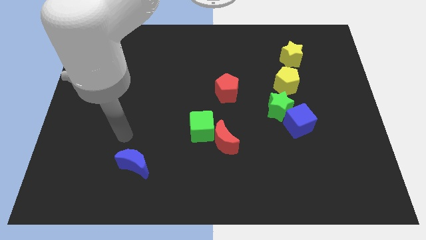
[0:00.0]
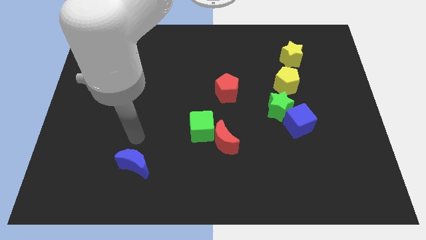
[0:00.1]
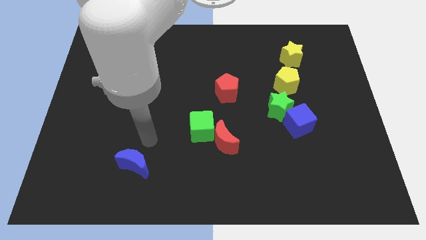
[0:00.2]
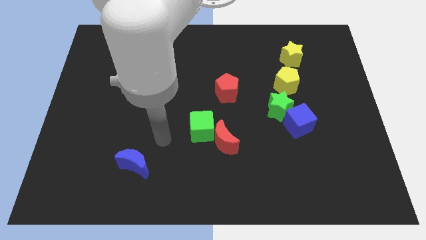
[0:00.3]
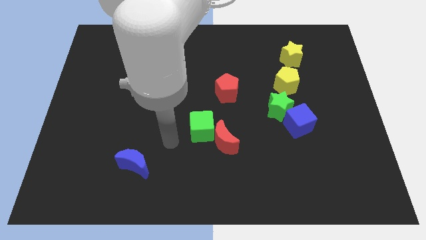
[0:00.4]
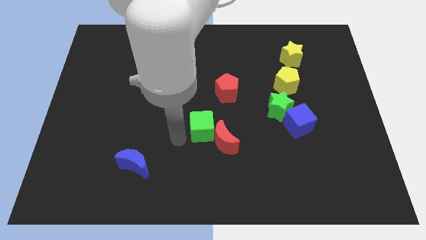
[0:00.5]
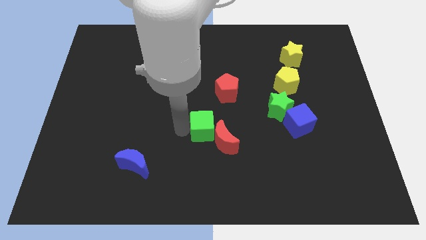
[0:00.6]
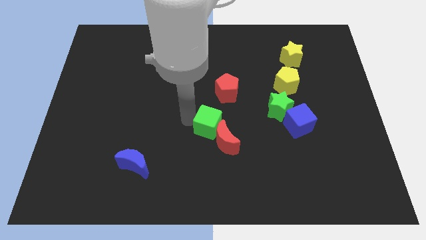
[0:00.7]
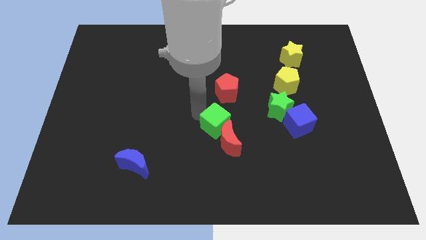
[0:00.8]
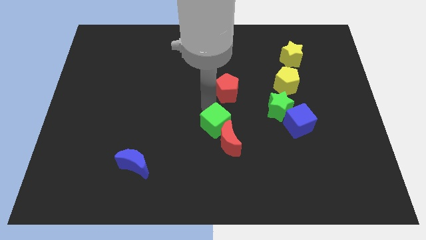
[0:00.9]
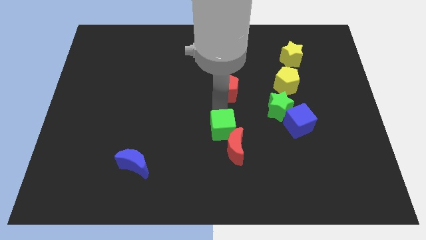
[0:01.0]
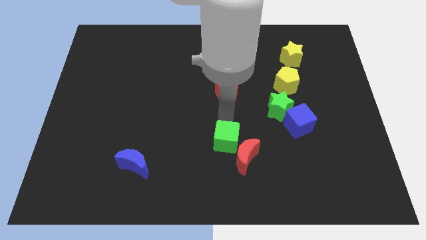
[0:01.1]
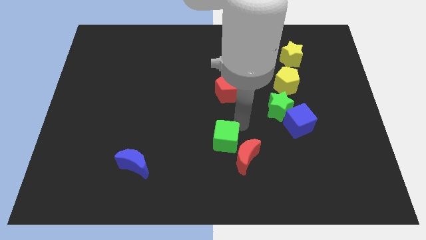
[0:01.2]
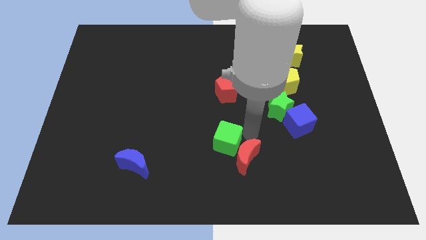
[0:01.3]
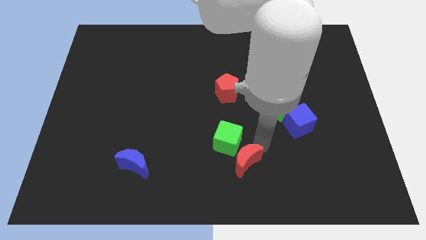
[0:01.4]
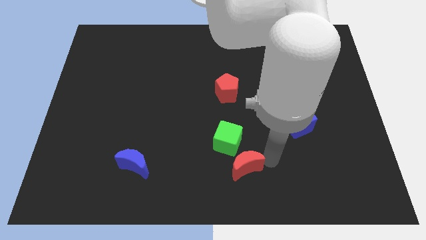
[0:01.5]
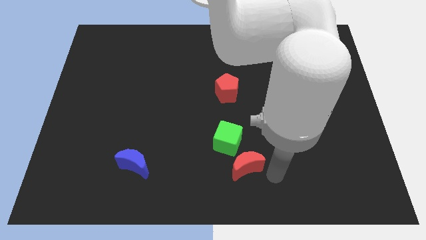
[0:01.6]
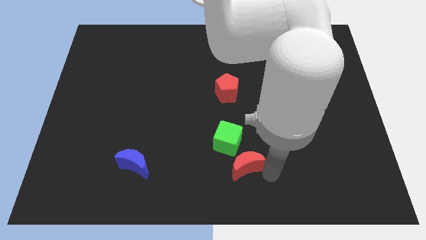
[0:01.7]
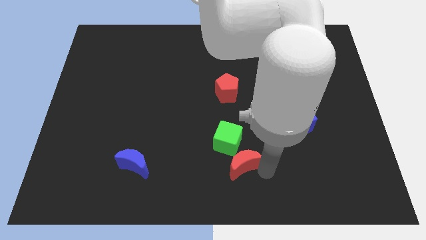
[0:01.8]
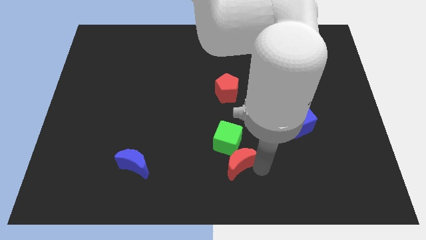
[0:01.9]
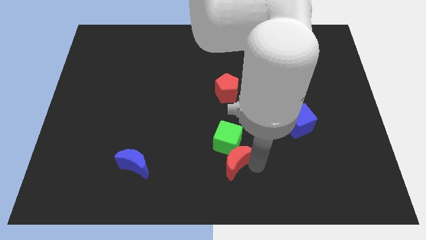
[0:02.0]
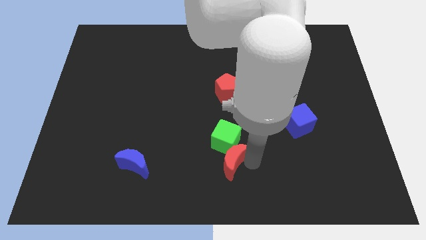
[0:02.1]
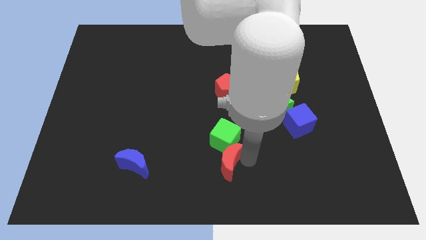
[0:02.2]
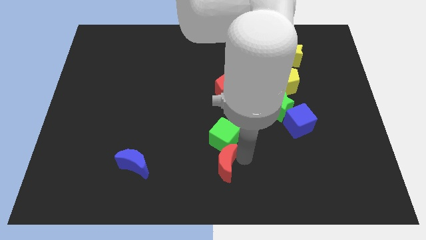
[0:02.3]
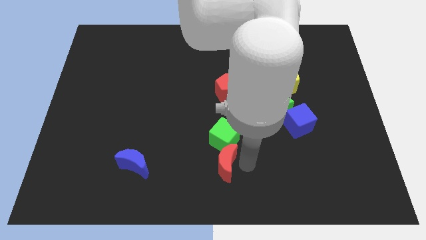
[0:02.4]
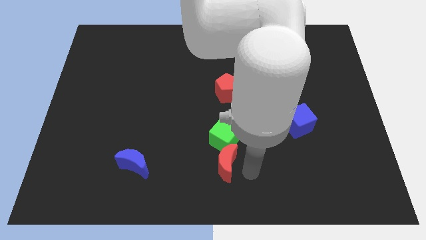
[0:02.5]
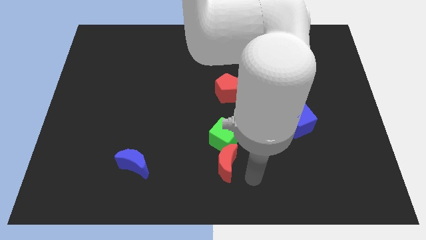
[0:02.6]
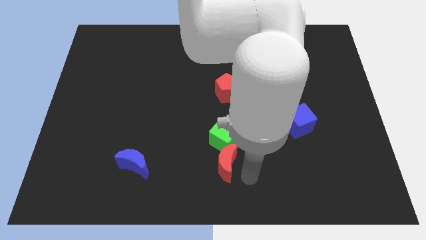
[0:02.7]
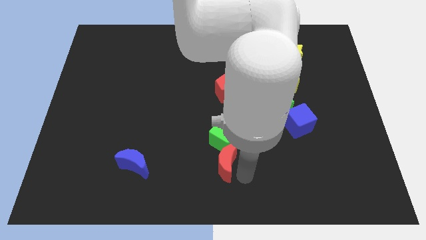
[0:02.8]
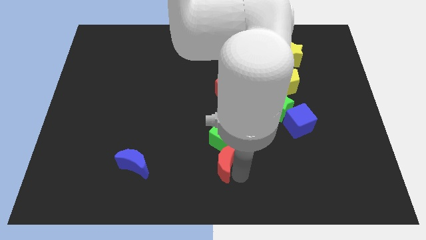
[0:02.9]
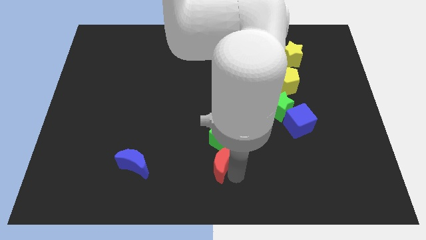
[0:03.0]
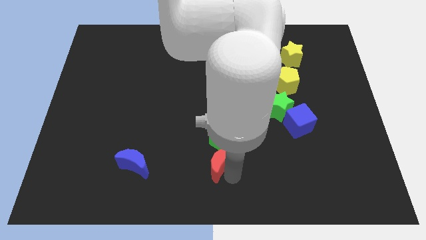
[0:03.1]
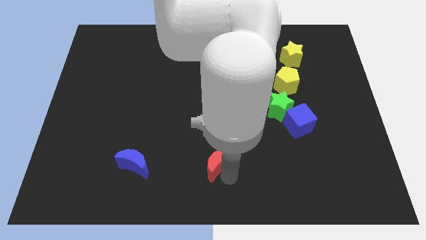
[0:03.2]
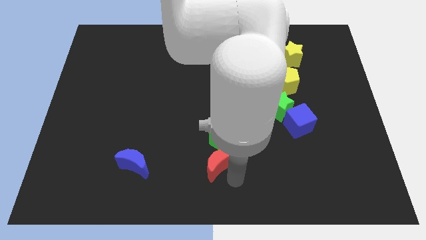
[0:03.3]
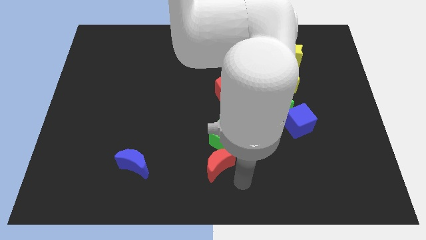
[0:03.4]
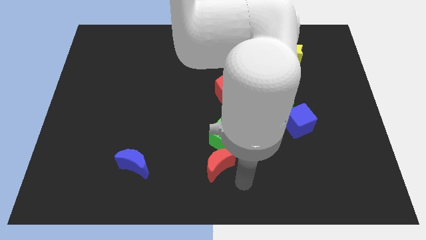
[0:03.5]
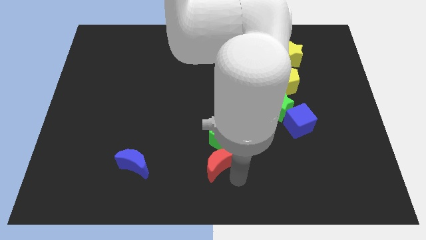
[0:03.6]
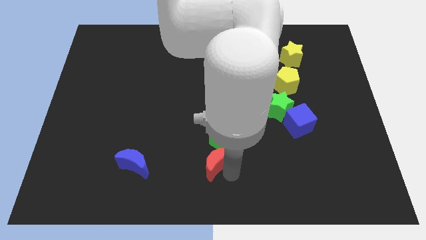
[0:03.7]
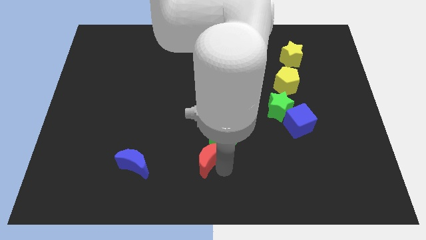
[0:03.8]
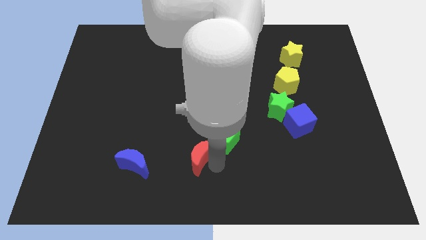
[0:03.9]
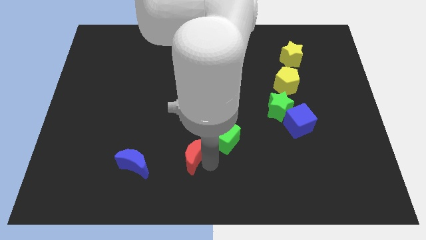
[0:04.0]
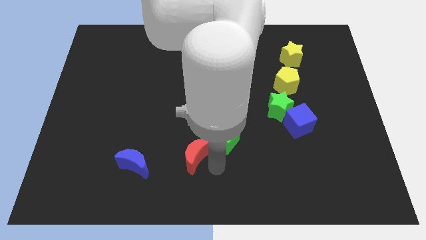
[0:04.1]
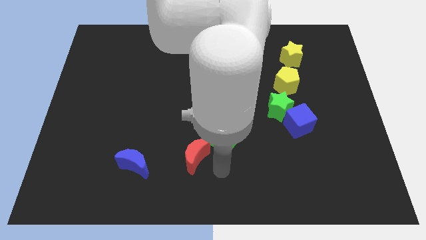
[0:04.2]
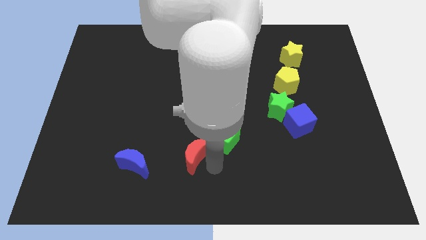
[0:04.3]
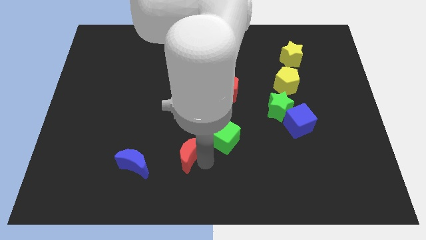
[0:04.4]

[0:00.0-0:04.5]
push the red moon a little left

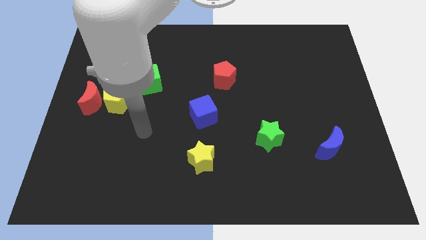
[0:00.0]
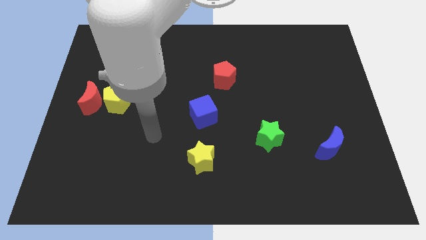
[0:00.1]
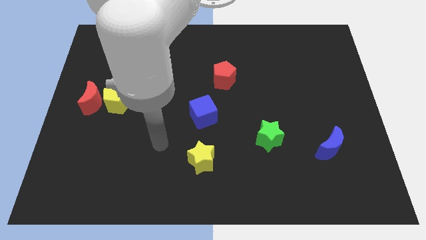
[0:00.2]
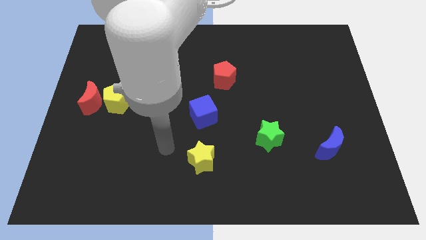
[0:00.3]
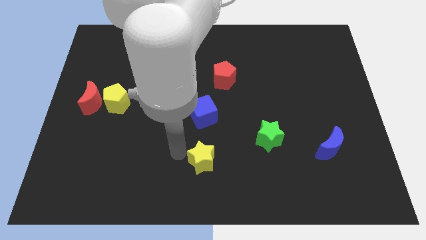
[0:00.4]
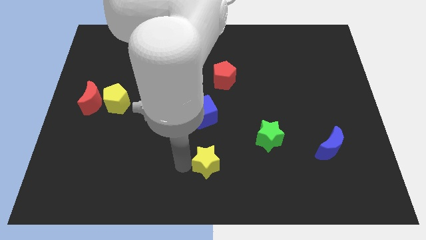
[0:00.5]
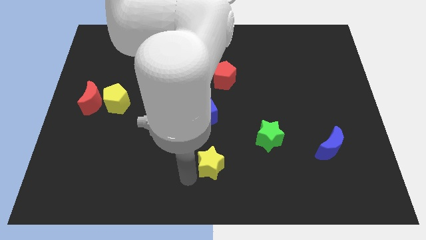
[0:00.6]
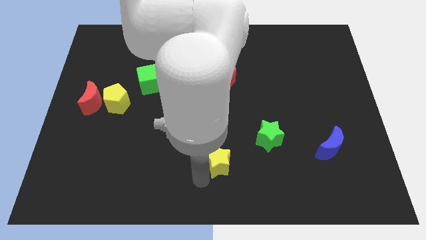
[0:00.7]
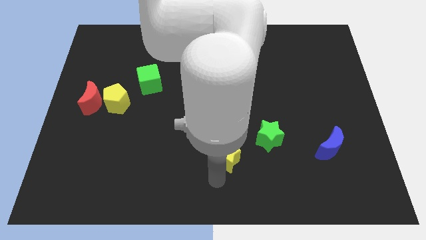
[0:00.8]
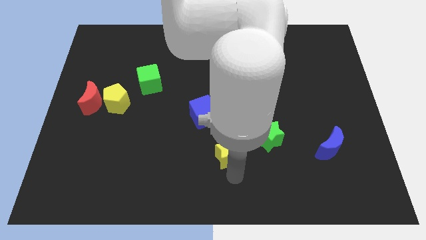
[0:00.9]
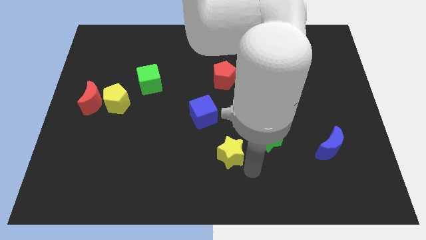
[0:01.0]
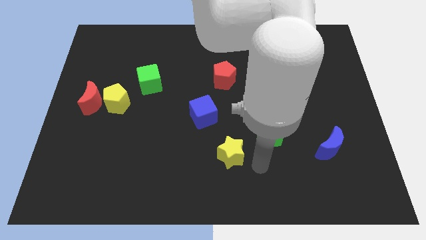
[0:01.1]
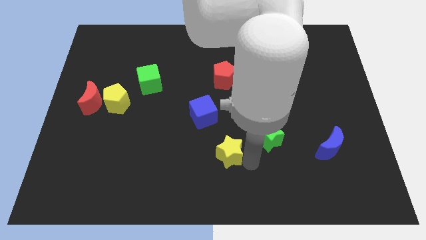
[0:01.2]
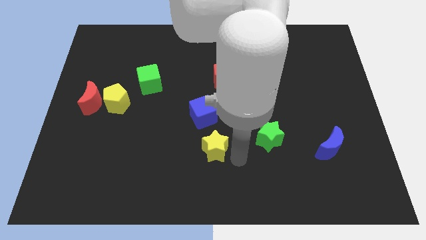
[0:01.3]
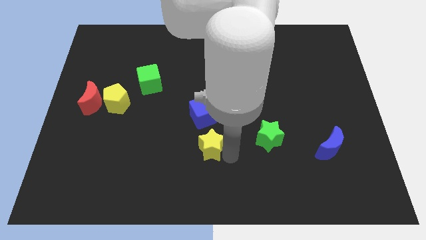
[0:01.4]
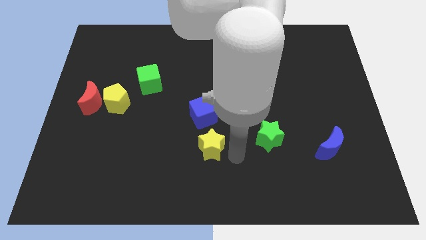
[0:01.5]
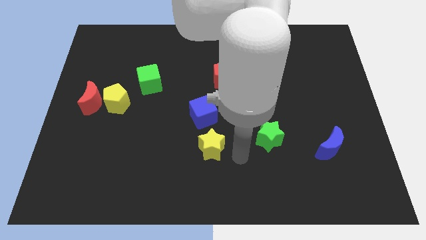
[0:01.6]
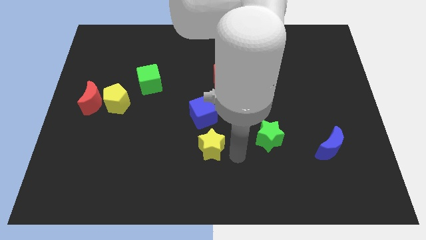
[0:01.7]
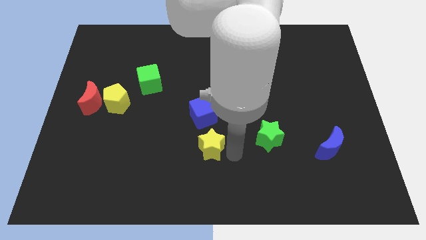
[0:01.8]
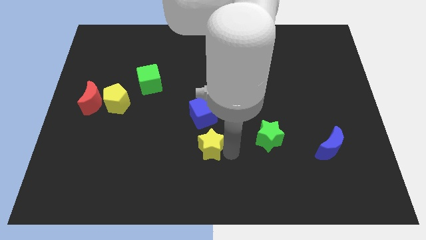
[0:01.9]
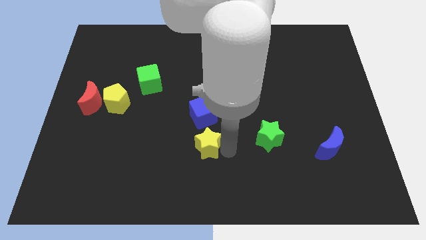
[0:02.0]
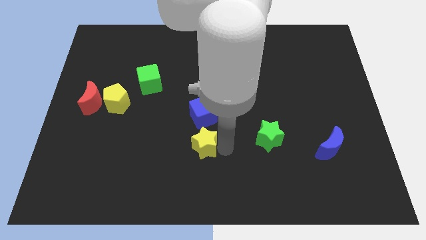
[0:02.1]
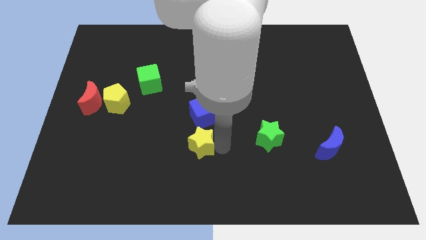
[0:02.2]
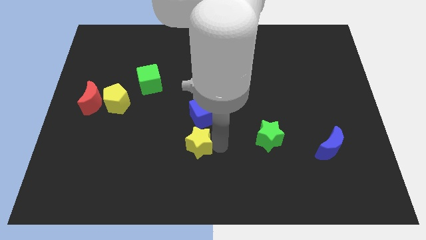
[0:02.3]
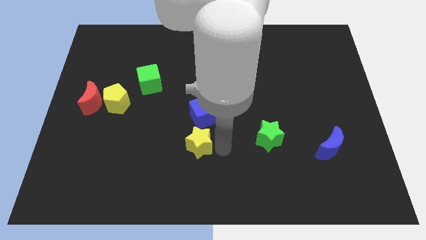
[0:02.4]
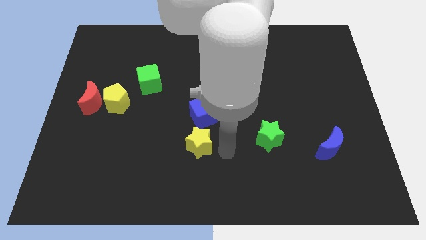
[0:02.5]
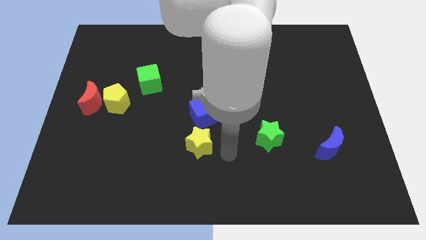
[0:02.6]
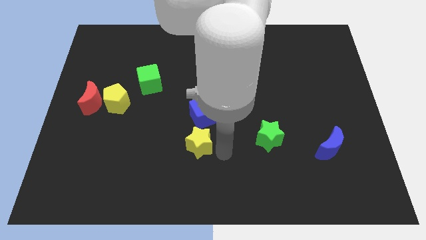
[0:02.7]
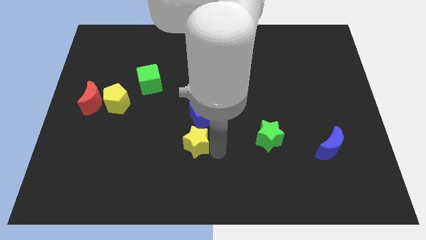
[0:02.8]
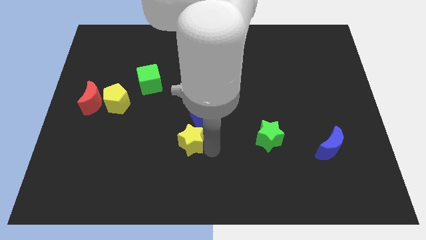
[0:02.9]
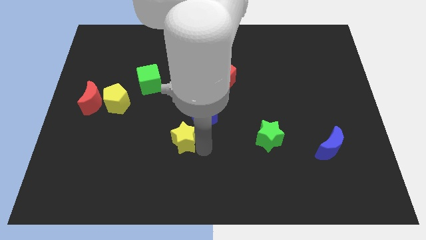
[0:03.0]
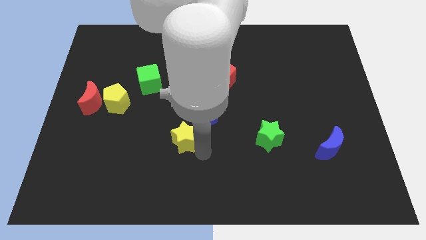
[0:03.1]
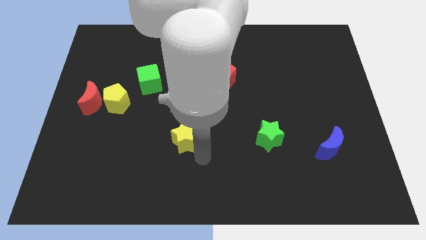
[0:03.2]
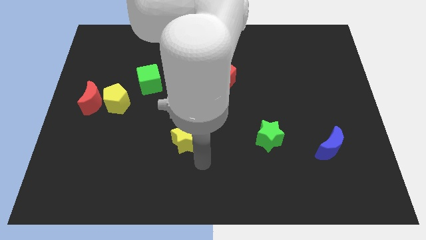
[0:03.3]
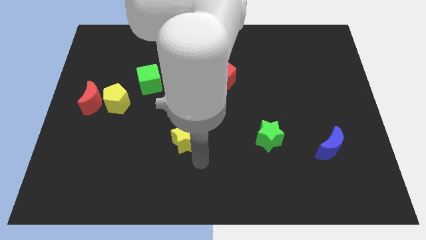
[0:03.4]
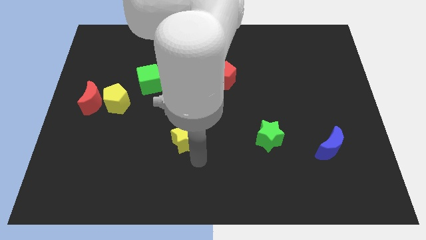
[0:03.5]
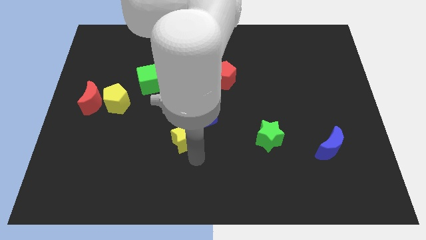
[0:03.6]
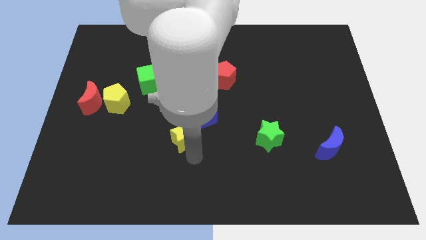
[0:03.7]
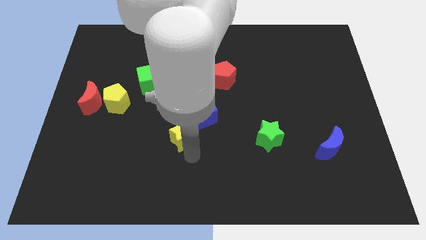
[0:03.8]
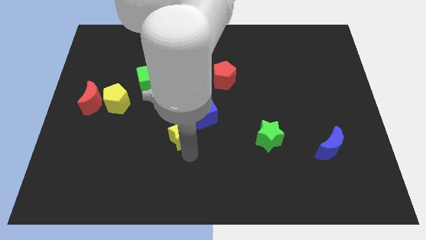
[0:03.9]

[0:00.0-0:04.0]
slide the yellow star a bit upwards and to the left diagonally
